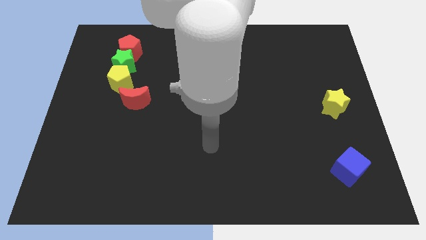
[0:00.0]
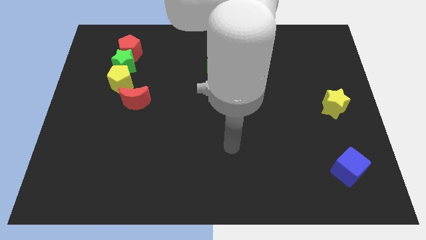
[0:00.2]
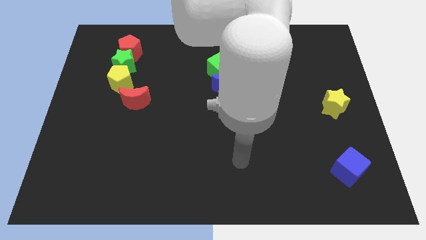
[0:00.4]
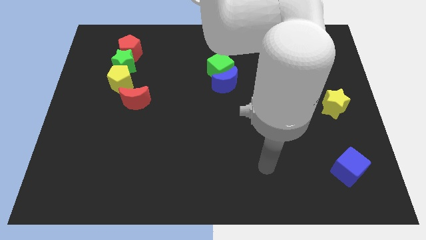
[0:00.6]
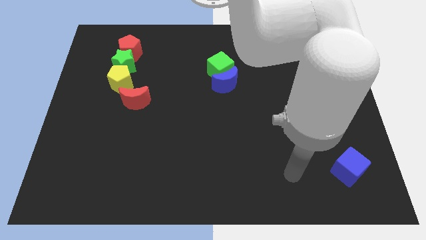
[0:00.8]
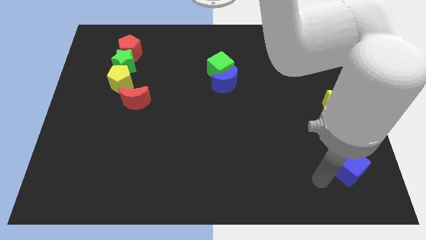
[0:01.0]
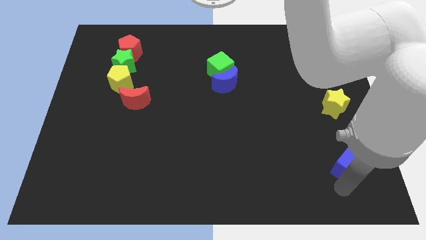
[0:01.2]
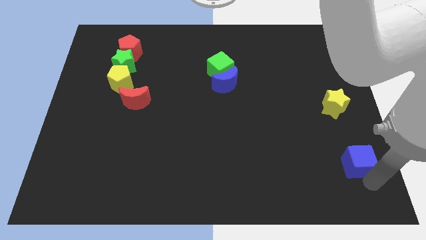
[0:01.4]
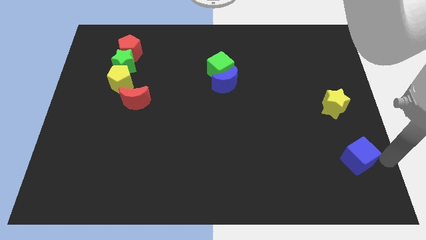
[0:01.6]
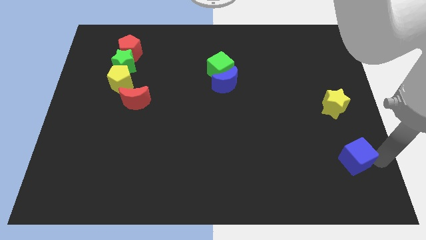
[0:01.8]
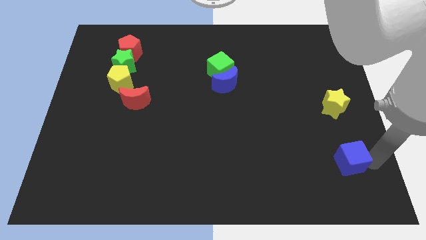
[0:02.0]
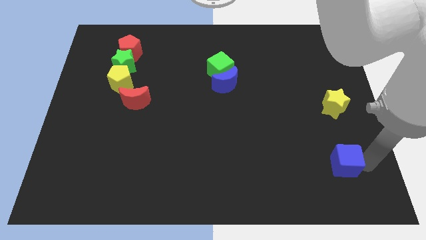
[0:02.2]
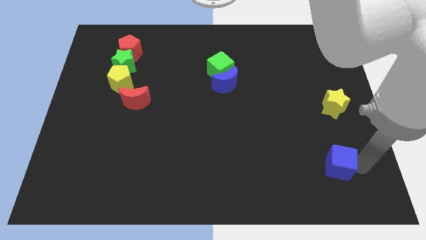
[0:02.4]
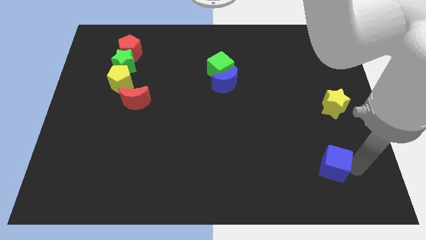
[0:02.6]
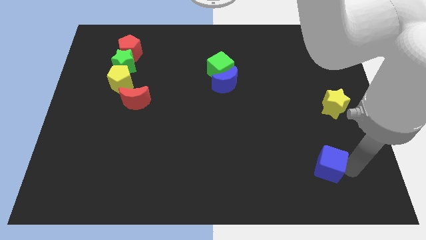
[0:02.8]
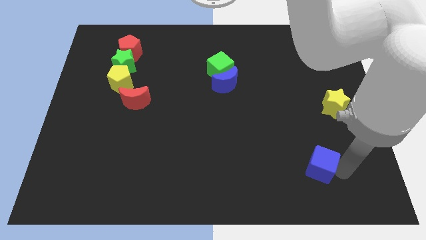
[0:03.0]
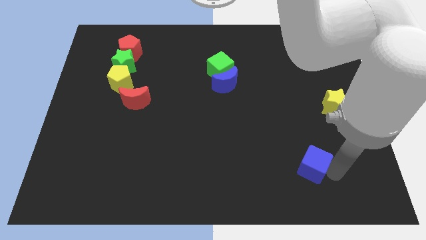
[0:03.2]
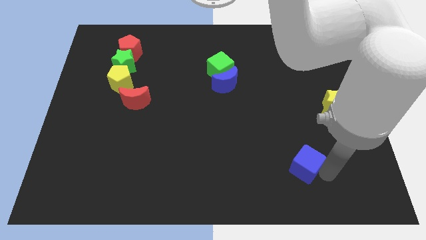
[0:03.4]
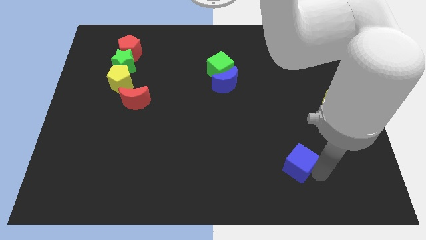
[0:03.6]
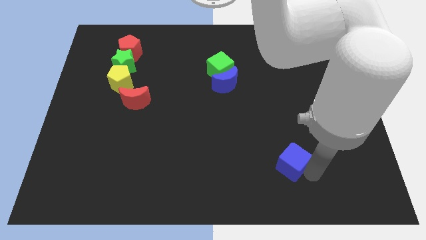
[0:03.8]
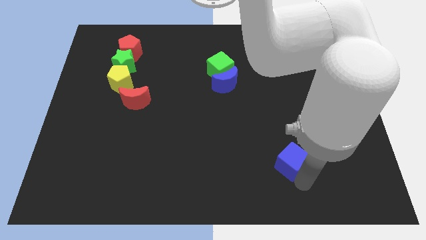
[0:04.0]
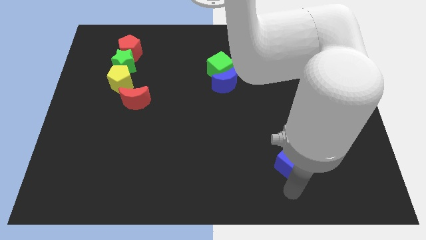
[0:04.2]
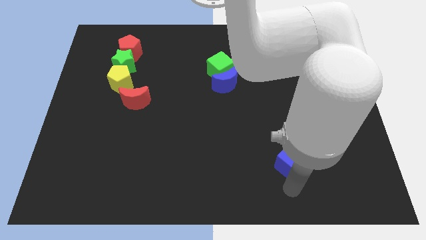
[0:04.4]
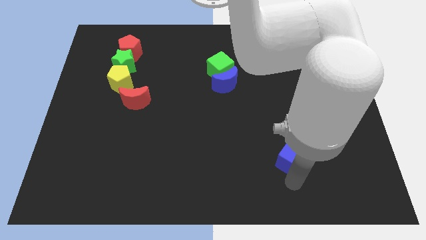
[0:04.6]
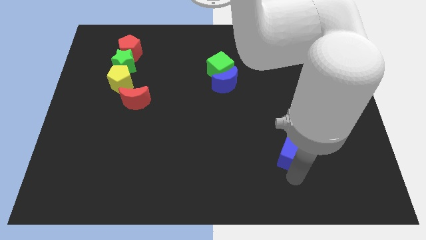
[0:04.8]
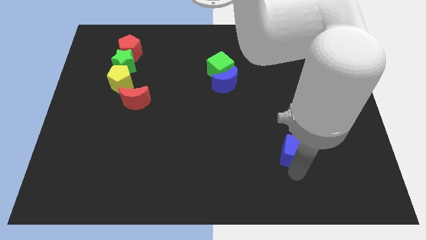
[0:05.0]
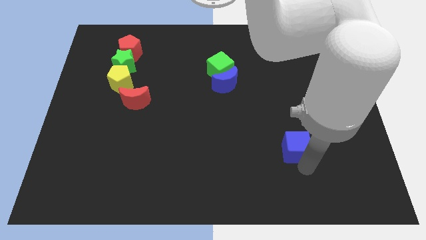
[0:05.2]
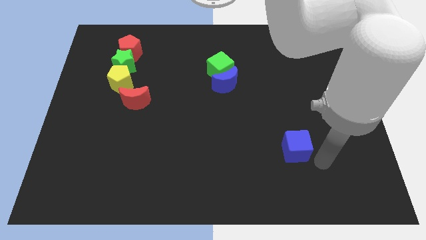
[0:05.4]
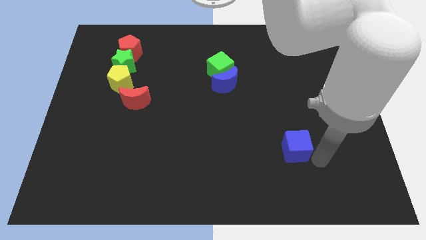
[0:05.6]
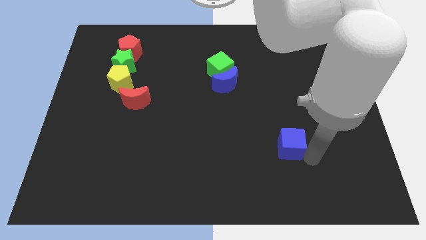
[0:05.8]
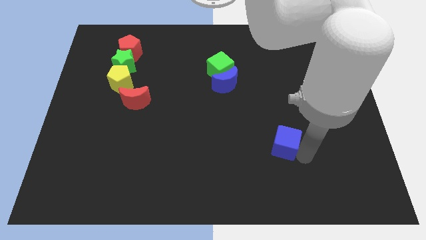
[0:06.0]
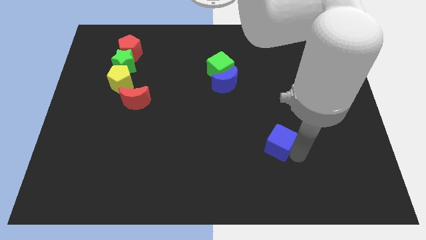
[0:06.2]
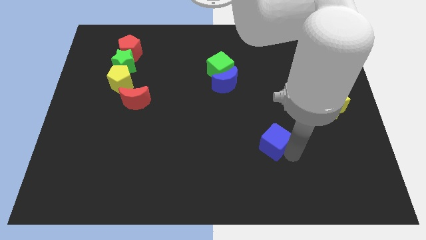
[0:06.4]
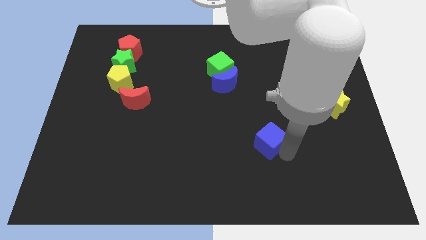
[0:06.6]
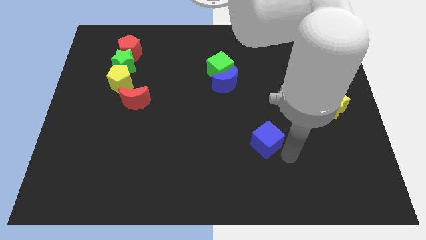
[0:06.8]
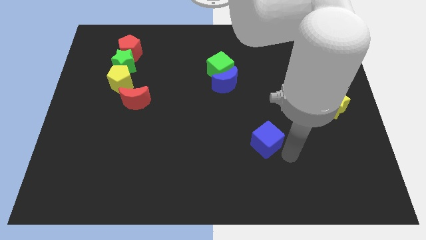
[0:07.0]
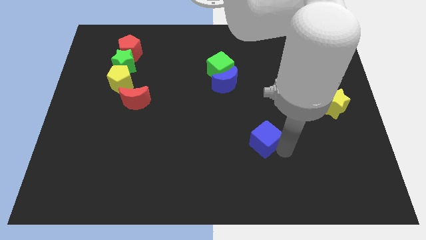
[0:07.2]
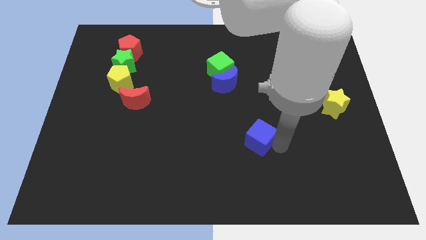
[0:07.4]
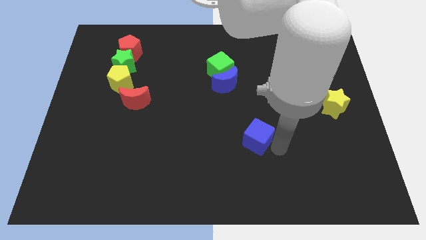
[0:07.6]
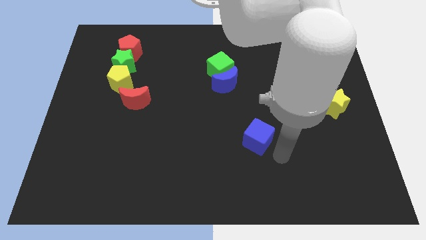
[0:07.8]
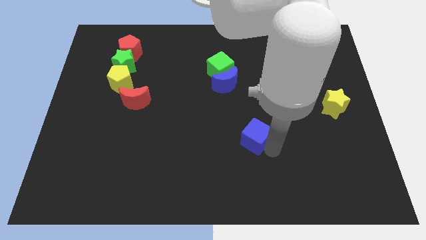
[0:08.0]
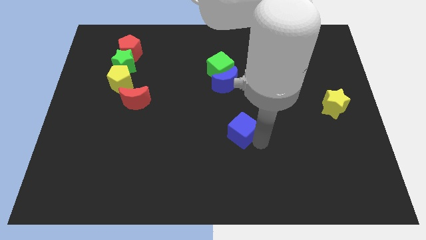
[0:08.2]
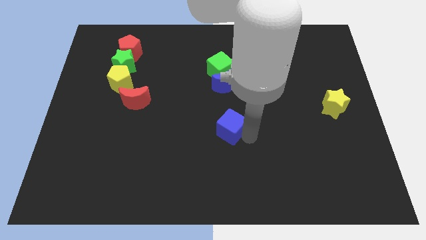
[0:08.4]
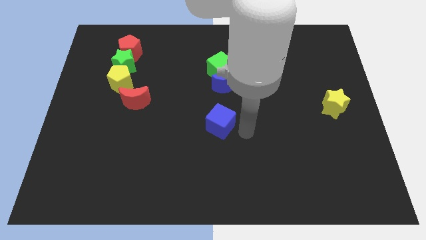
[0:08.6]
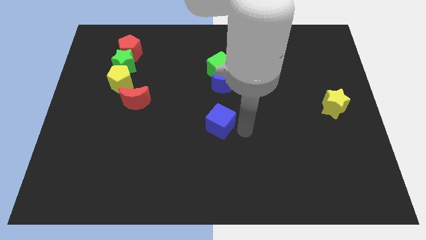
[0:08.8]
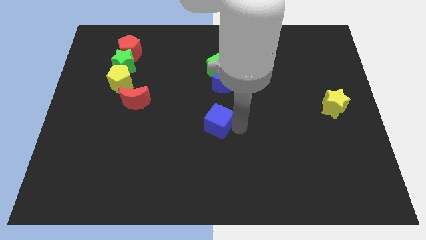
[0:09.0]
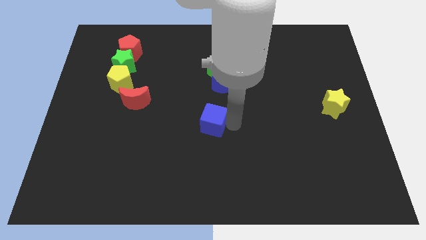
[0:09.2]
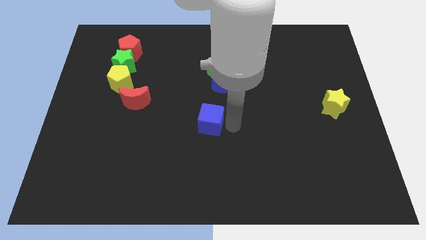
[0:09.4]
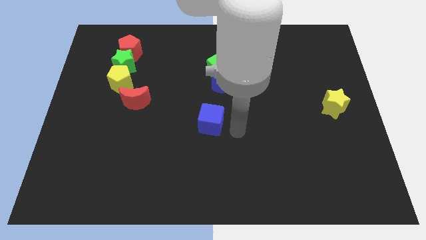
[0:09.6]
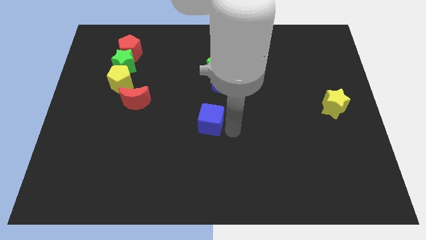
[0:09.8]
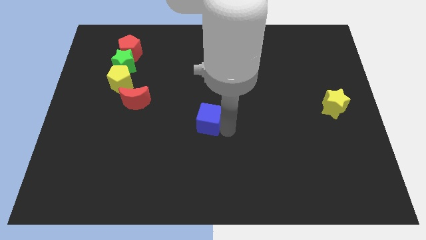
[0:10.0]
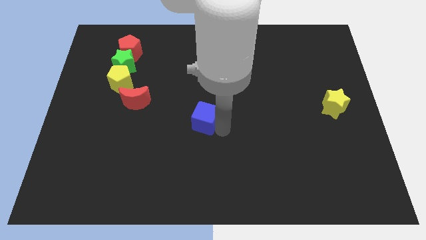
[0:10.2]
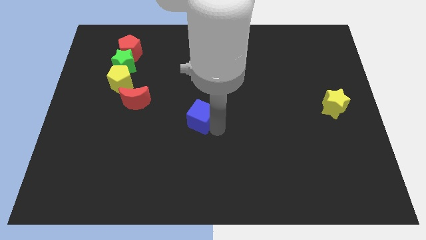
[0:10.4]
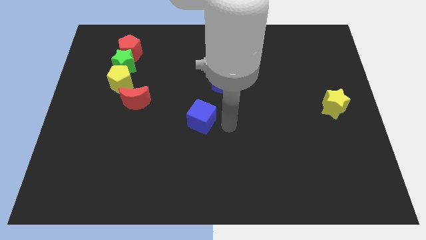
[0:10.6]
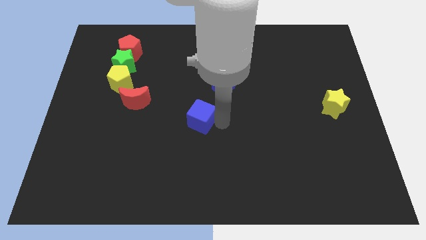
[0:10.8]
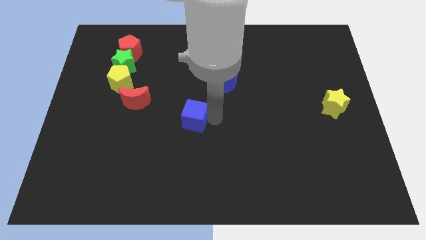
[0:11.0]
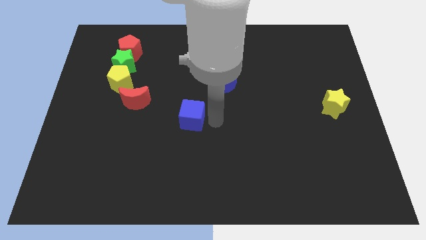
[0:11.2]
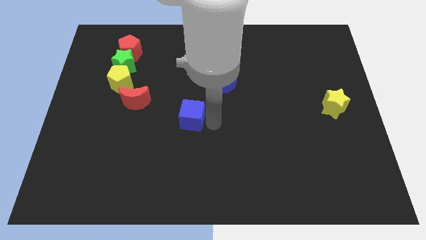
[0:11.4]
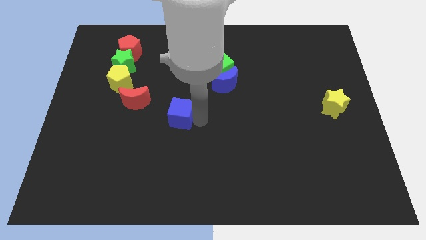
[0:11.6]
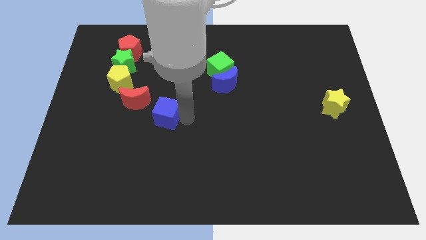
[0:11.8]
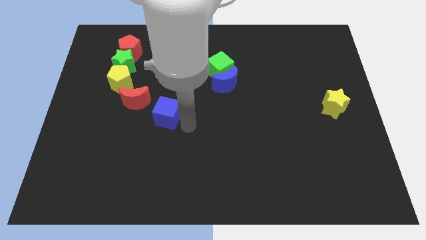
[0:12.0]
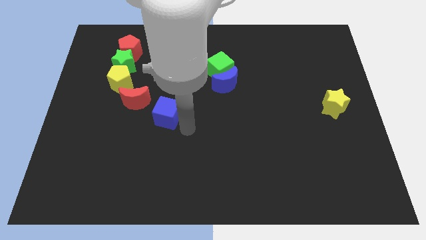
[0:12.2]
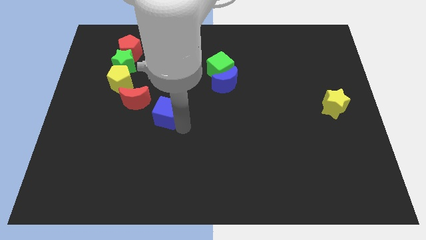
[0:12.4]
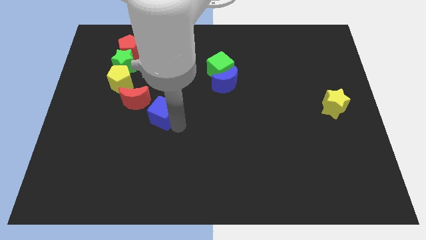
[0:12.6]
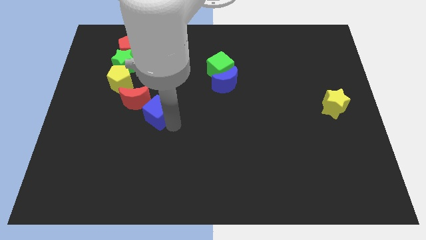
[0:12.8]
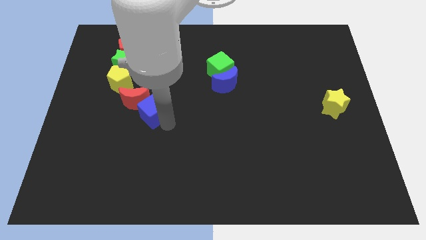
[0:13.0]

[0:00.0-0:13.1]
slide the blue cube to the red moon

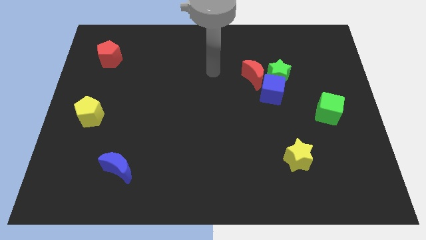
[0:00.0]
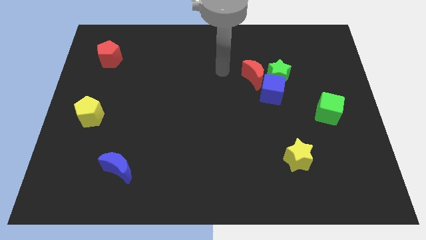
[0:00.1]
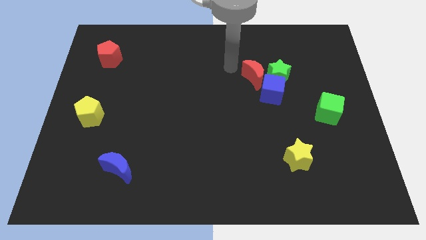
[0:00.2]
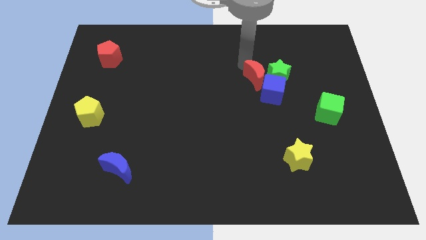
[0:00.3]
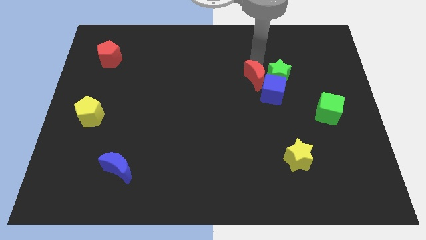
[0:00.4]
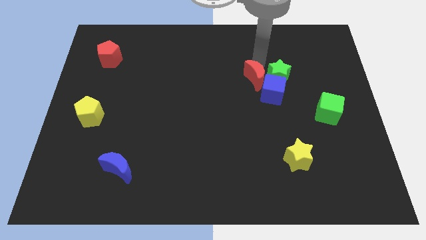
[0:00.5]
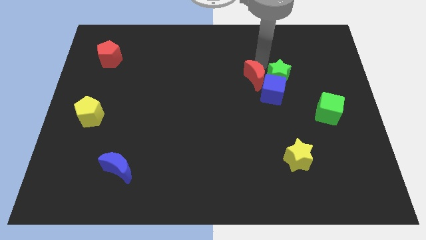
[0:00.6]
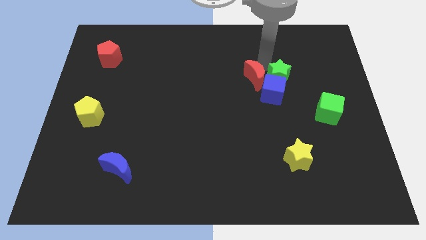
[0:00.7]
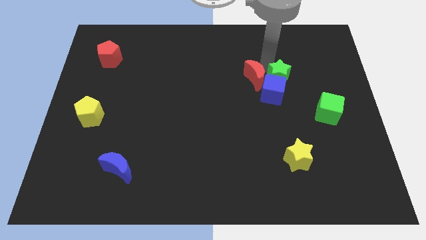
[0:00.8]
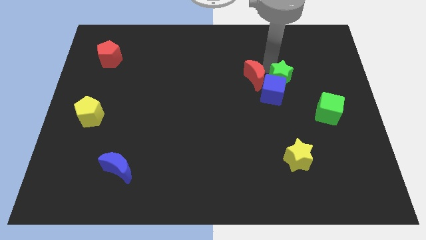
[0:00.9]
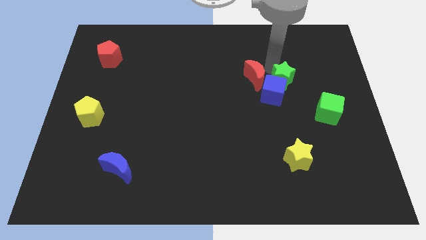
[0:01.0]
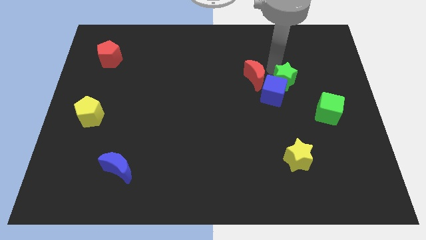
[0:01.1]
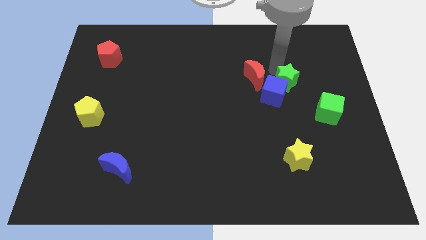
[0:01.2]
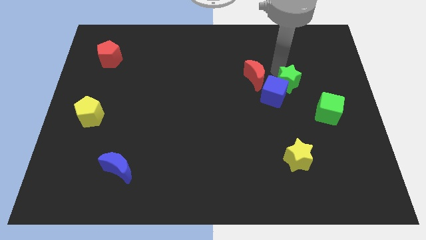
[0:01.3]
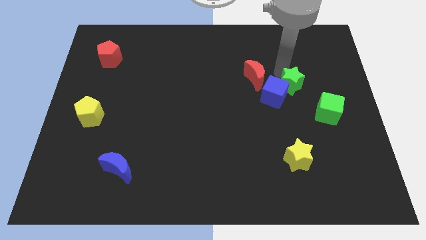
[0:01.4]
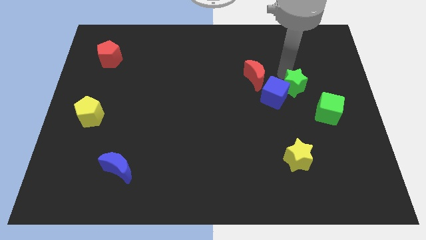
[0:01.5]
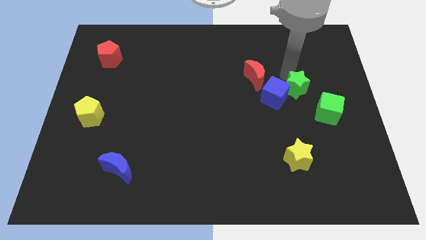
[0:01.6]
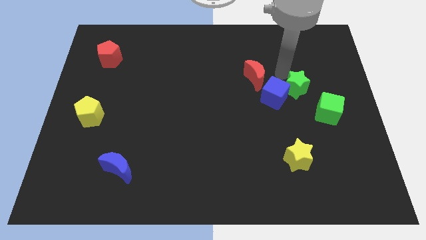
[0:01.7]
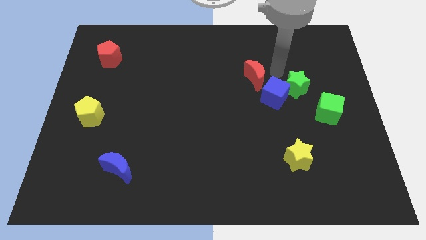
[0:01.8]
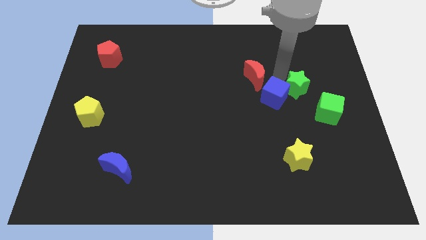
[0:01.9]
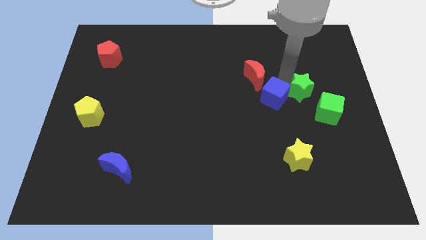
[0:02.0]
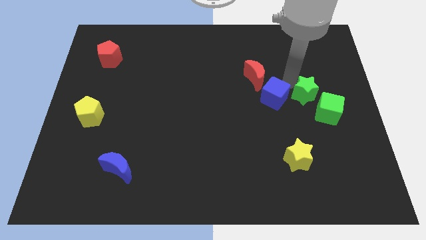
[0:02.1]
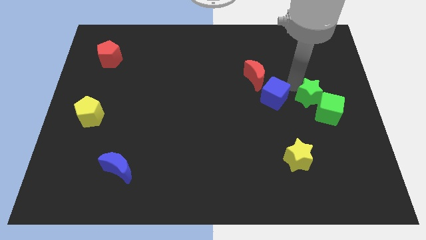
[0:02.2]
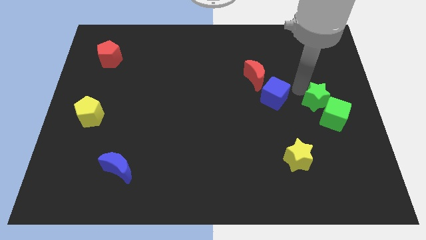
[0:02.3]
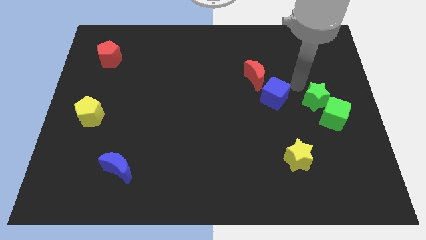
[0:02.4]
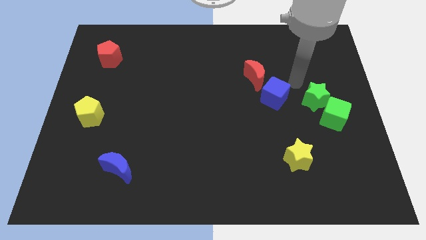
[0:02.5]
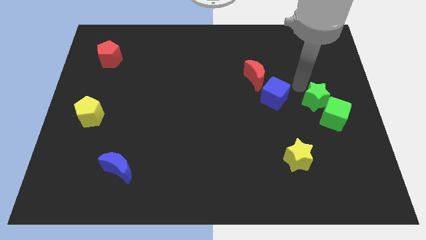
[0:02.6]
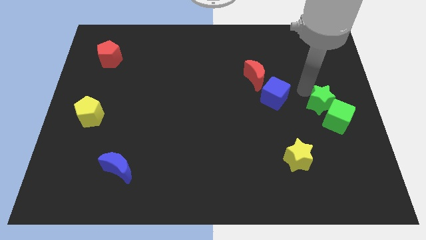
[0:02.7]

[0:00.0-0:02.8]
move the green star close to the green cube
